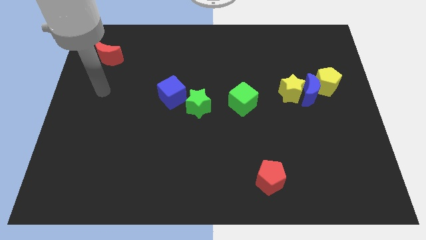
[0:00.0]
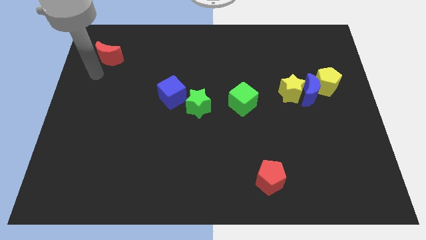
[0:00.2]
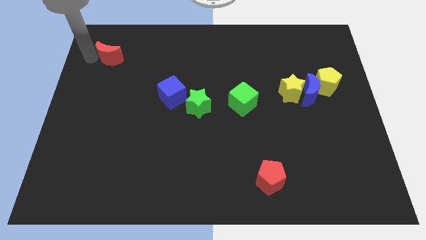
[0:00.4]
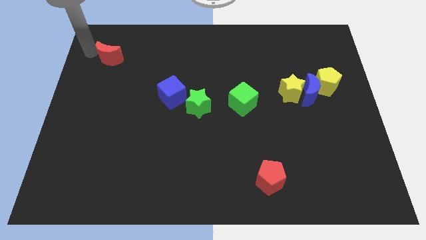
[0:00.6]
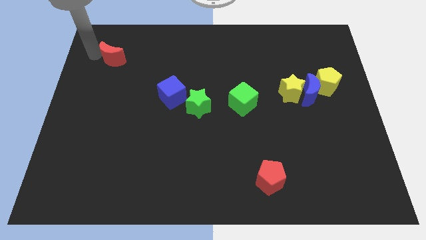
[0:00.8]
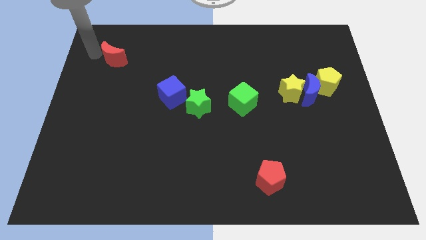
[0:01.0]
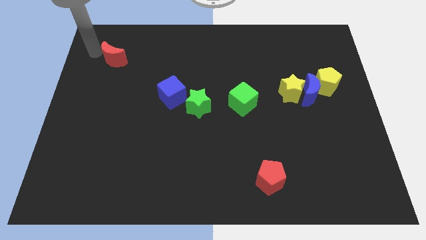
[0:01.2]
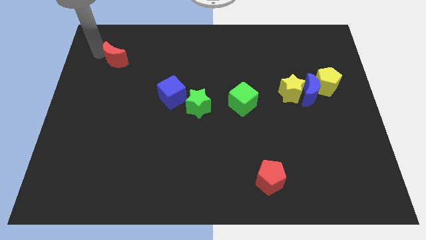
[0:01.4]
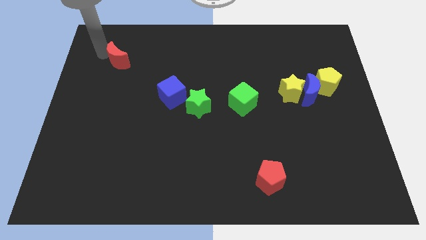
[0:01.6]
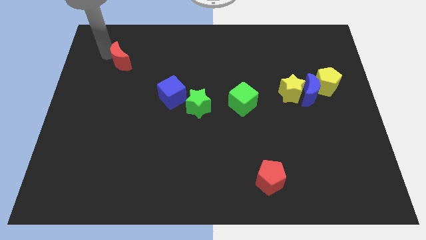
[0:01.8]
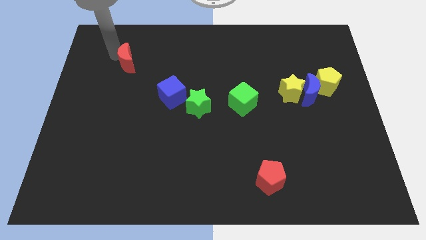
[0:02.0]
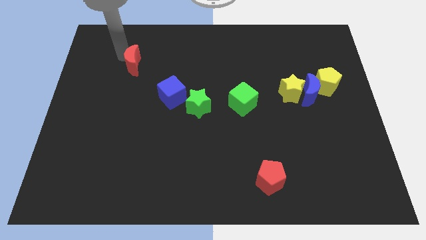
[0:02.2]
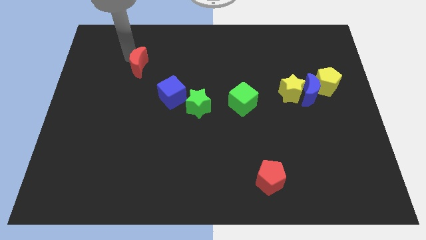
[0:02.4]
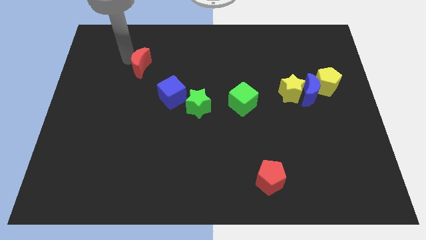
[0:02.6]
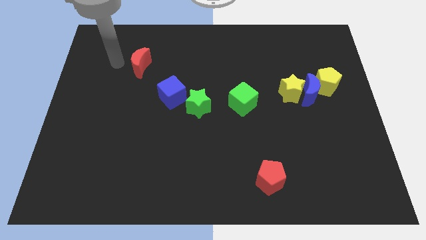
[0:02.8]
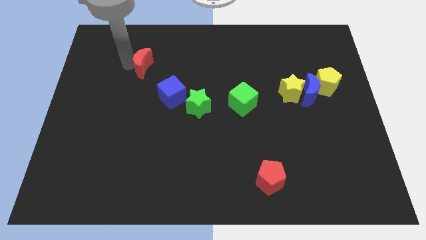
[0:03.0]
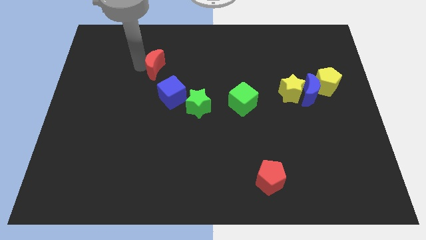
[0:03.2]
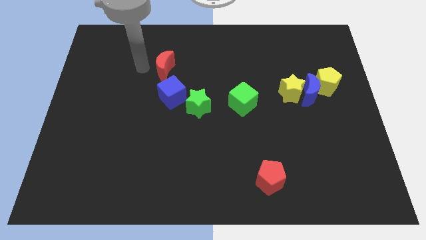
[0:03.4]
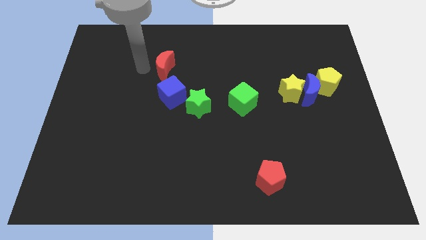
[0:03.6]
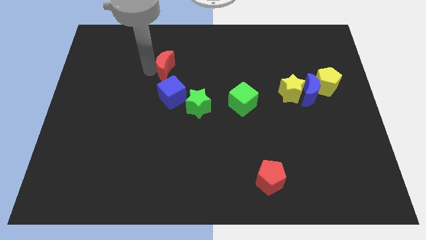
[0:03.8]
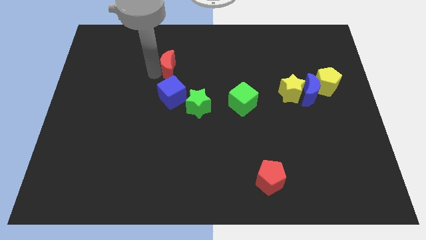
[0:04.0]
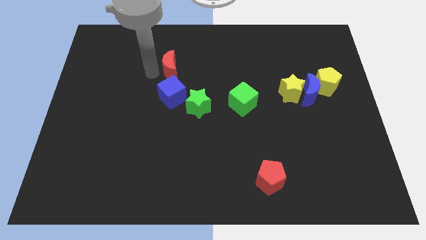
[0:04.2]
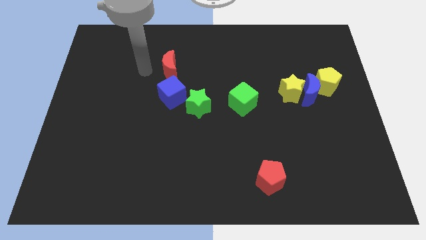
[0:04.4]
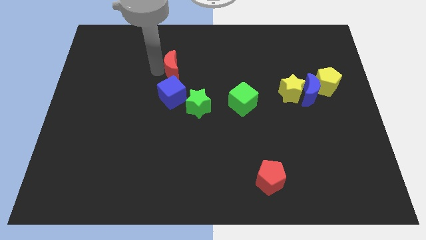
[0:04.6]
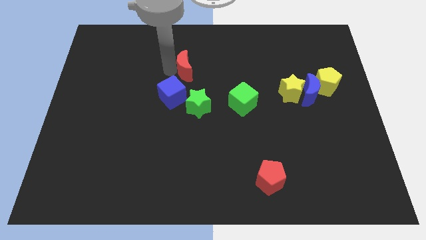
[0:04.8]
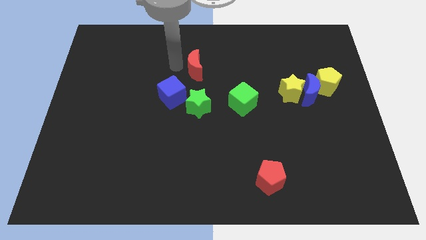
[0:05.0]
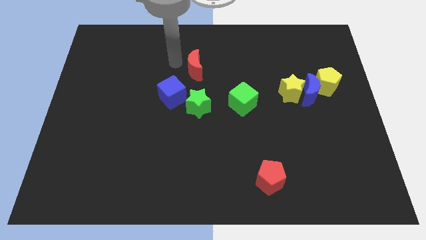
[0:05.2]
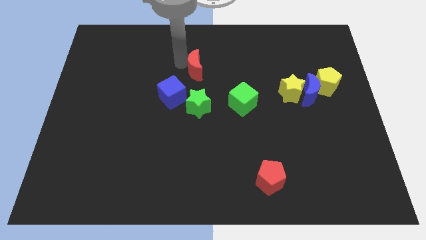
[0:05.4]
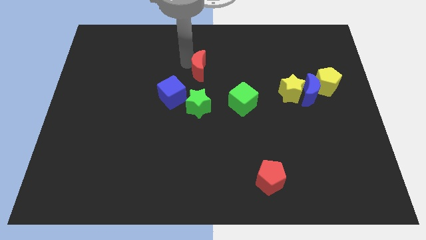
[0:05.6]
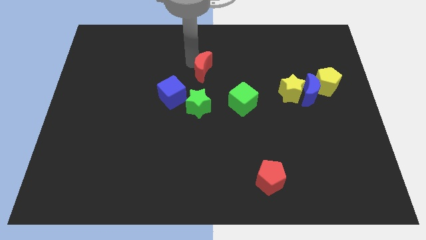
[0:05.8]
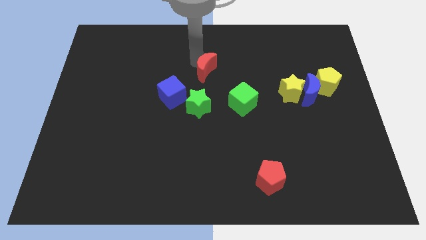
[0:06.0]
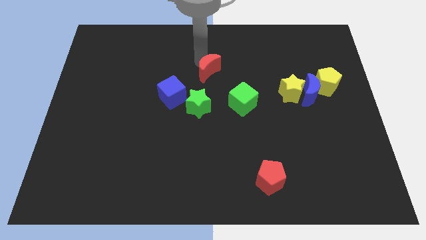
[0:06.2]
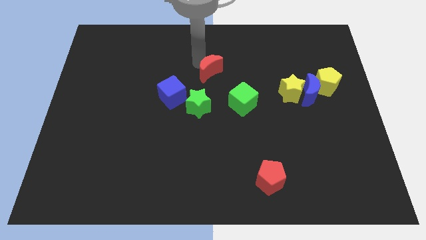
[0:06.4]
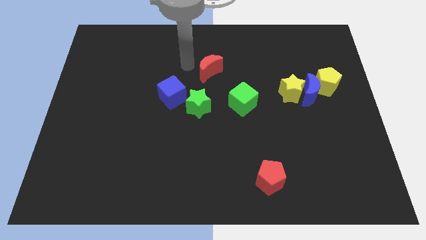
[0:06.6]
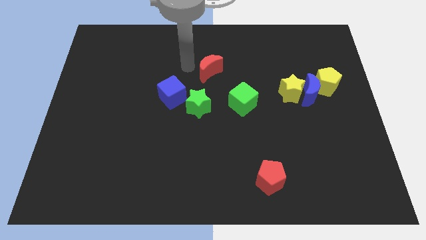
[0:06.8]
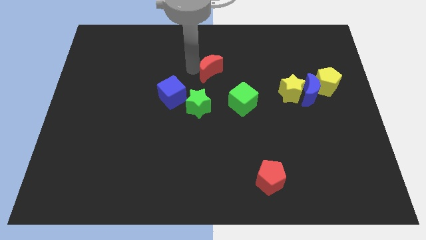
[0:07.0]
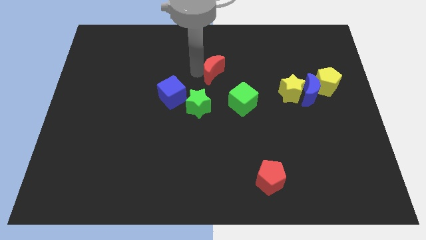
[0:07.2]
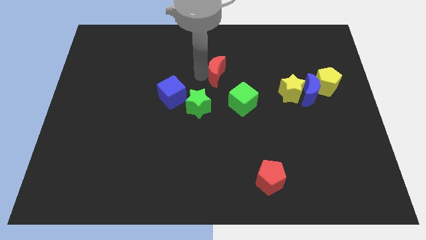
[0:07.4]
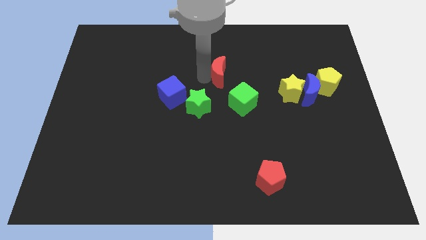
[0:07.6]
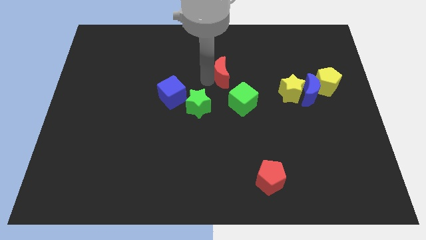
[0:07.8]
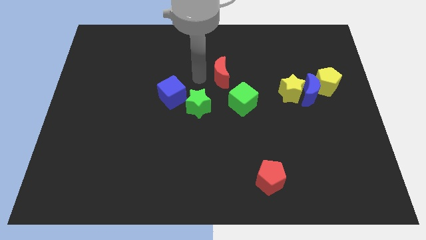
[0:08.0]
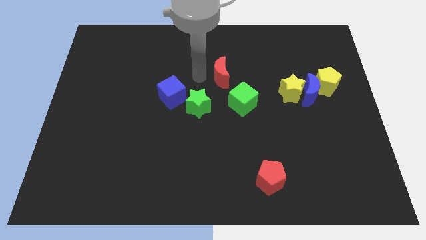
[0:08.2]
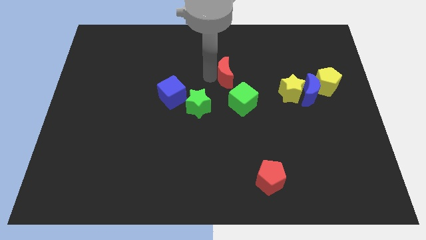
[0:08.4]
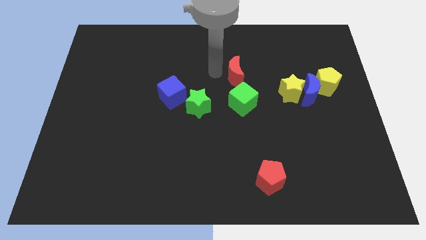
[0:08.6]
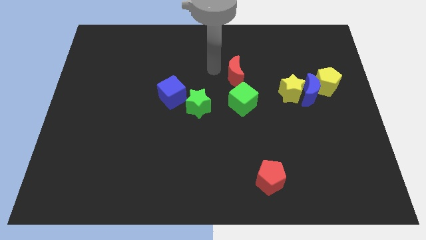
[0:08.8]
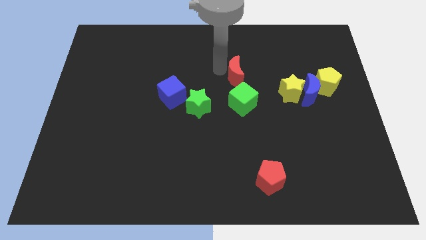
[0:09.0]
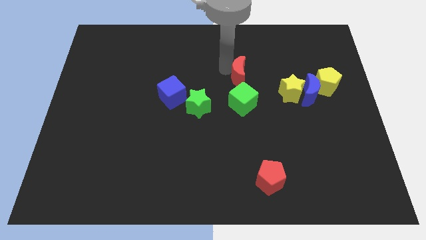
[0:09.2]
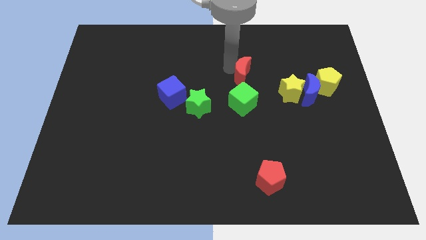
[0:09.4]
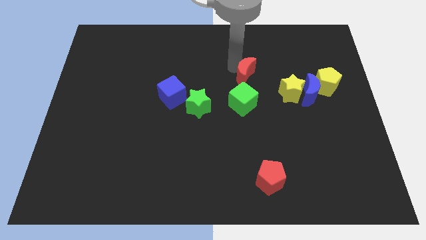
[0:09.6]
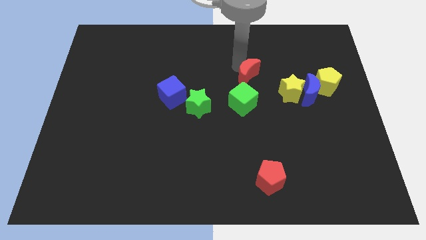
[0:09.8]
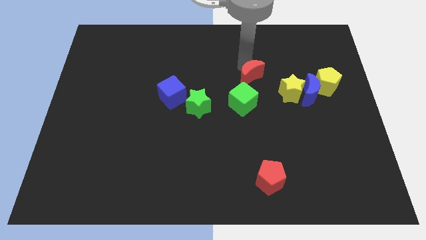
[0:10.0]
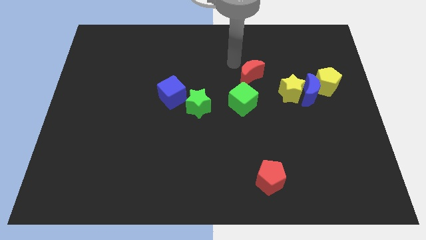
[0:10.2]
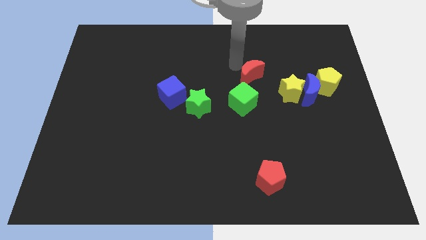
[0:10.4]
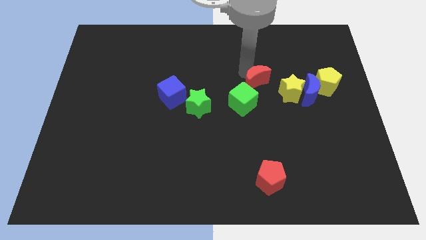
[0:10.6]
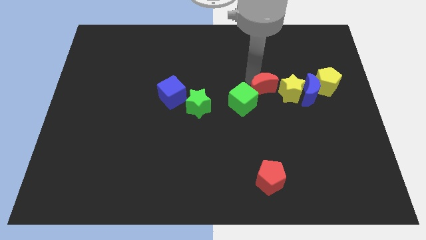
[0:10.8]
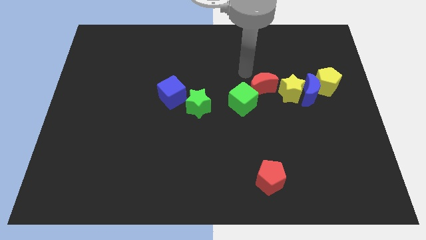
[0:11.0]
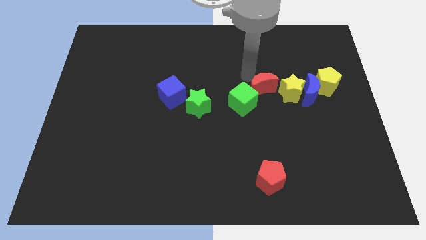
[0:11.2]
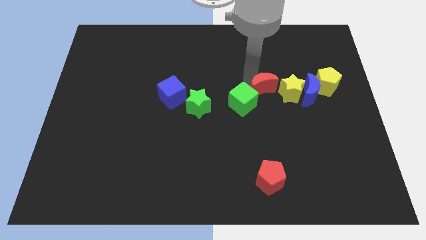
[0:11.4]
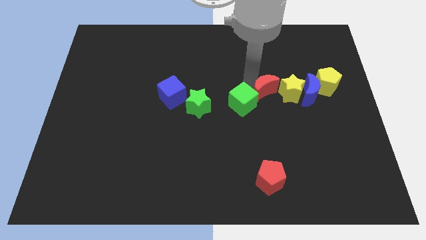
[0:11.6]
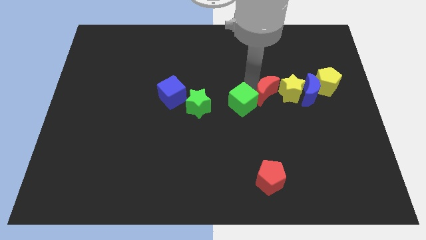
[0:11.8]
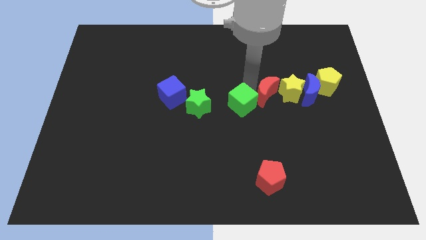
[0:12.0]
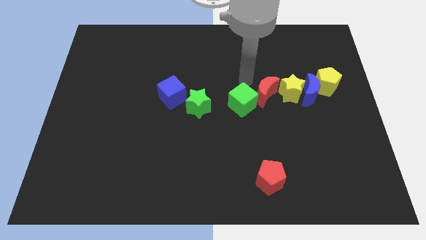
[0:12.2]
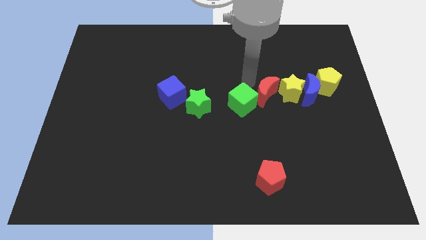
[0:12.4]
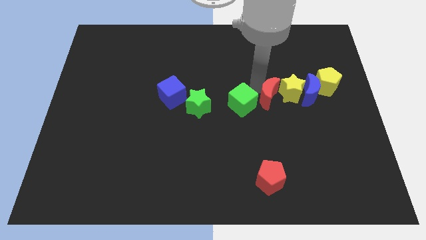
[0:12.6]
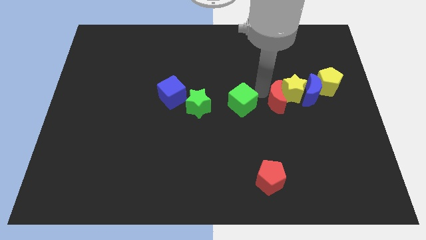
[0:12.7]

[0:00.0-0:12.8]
slide the red moon to the bottom left side of the blue moon

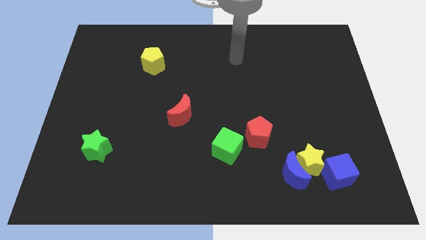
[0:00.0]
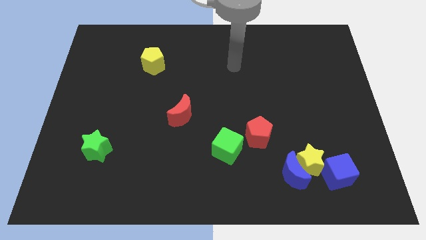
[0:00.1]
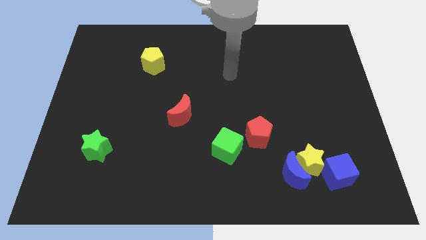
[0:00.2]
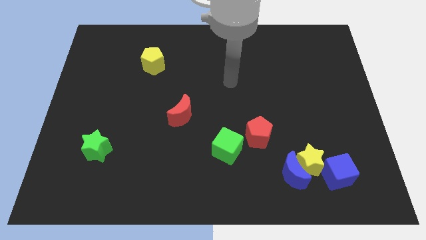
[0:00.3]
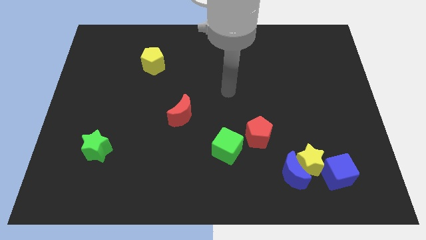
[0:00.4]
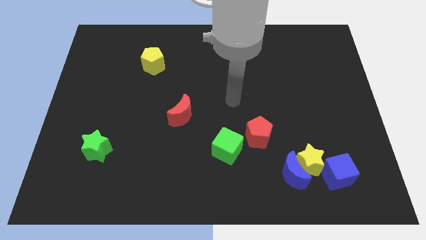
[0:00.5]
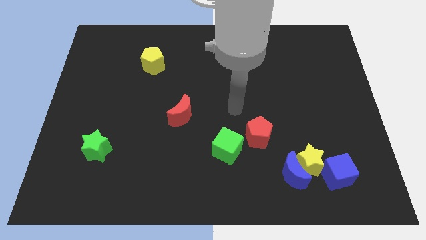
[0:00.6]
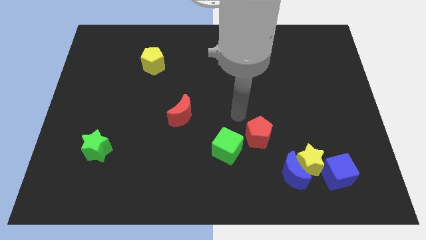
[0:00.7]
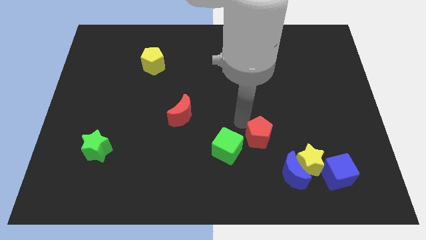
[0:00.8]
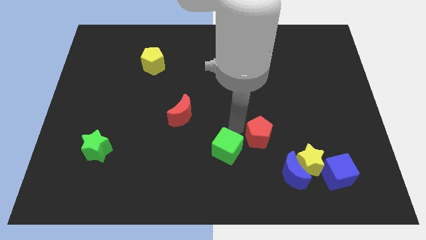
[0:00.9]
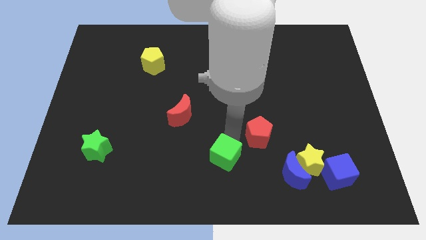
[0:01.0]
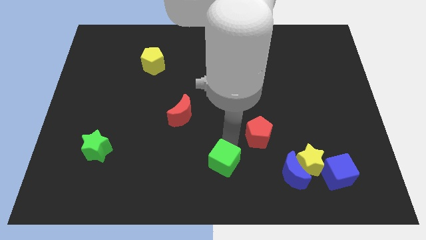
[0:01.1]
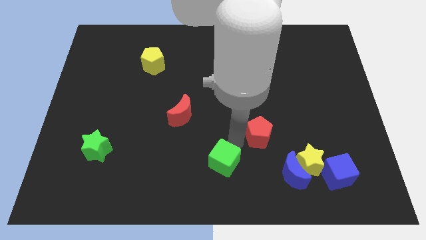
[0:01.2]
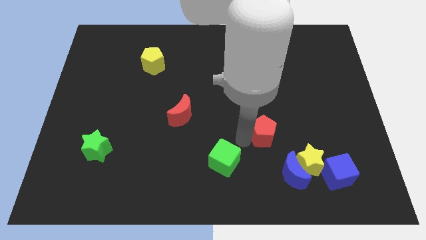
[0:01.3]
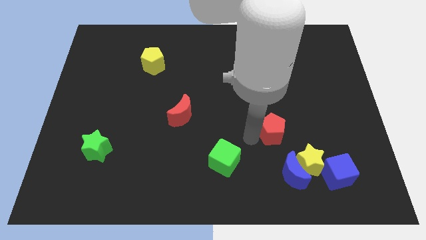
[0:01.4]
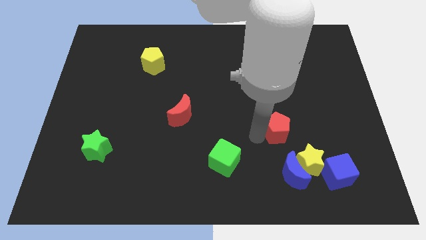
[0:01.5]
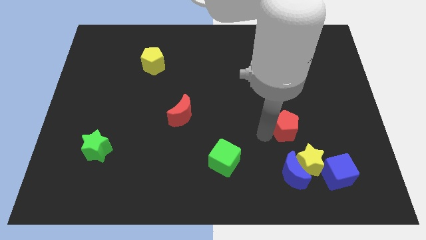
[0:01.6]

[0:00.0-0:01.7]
slide the red pentagon to the top side of the yellow star
